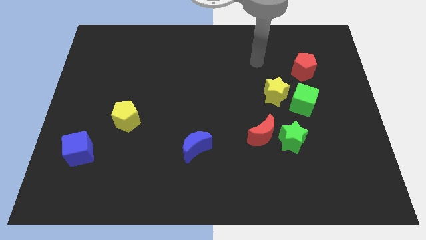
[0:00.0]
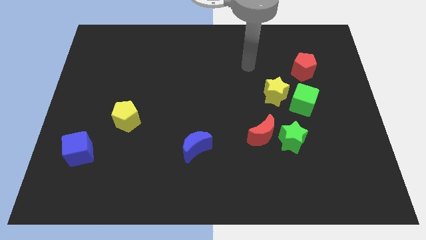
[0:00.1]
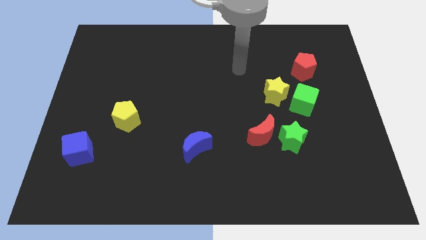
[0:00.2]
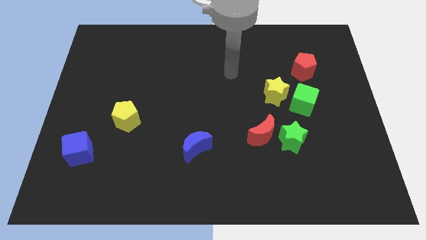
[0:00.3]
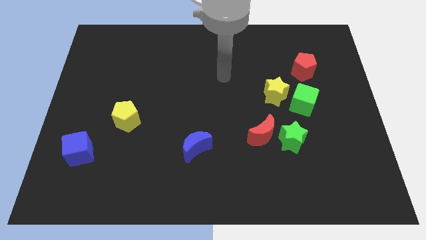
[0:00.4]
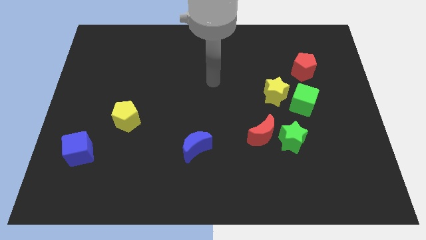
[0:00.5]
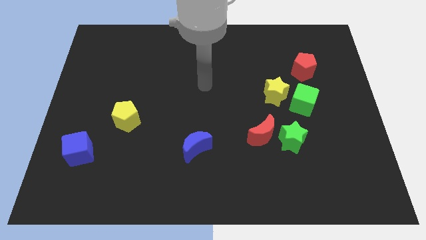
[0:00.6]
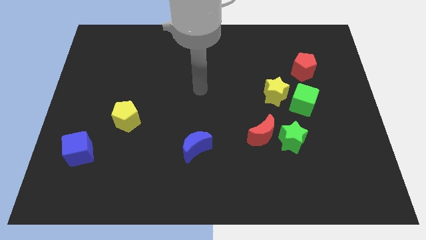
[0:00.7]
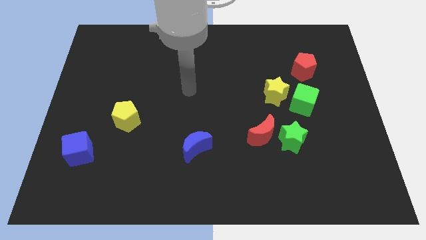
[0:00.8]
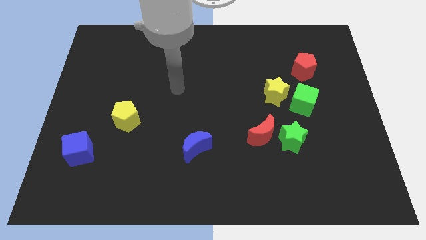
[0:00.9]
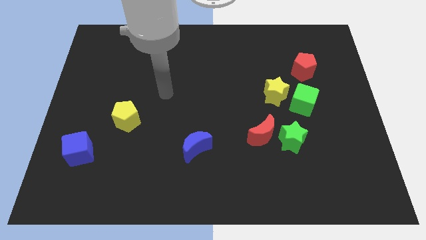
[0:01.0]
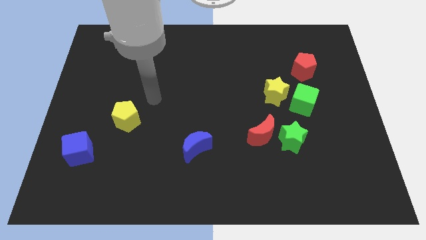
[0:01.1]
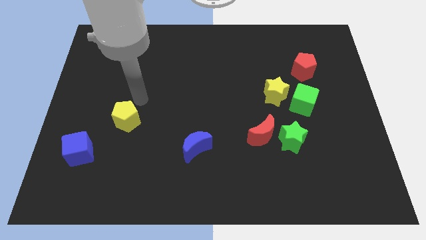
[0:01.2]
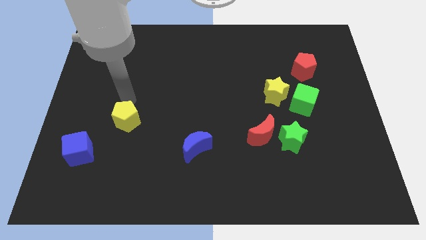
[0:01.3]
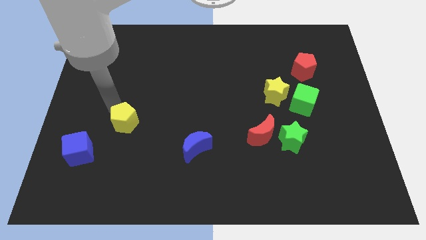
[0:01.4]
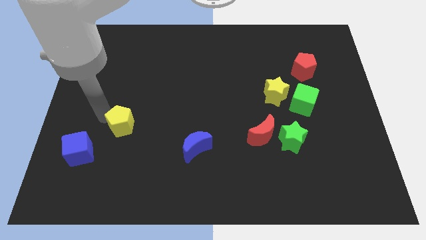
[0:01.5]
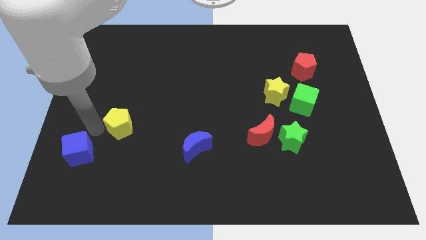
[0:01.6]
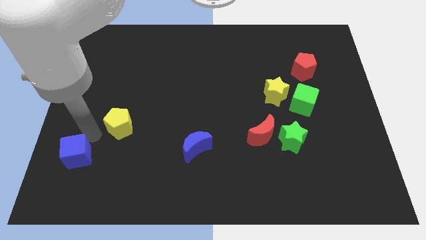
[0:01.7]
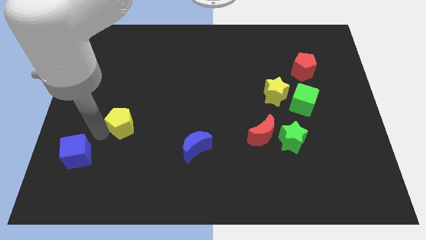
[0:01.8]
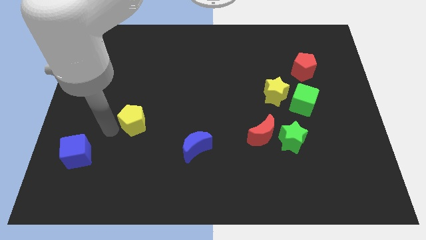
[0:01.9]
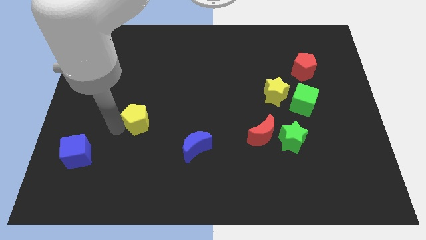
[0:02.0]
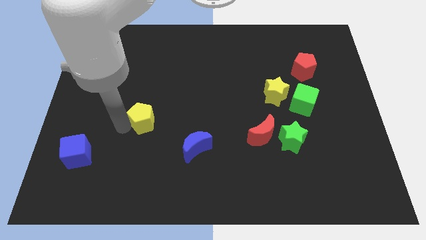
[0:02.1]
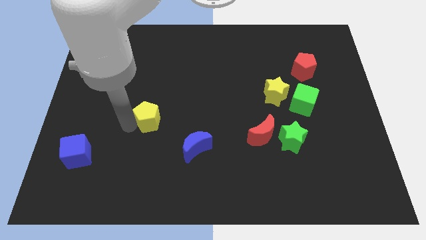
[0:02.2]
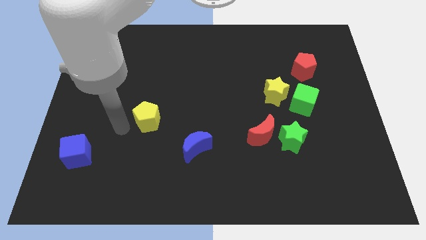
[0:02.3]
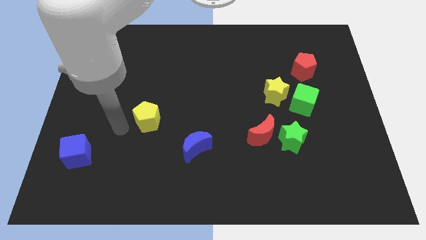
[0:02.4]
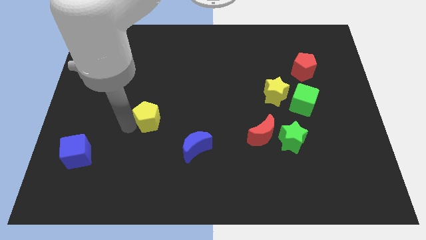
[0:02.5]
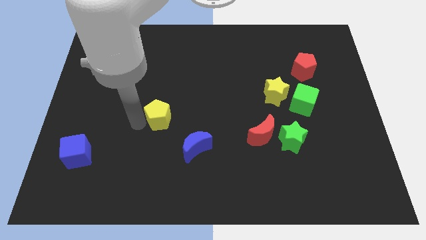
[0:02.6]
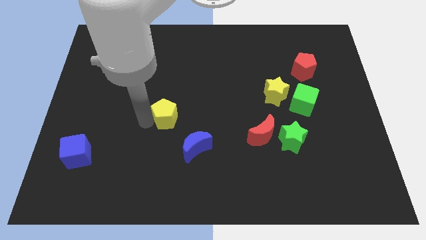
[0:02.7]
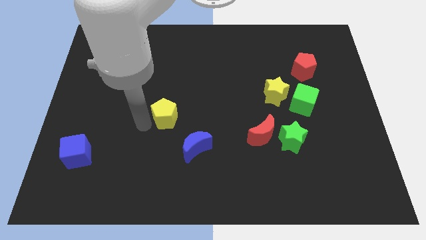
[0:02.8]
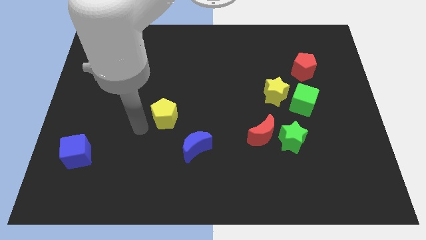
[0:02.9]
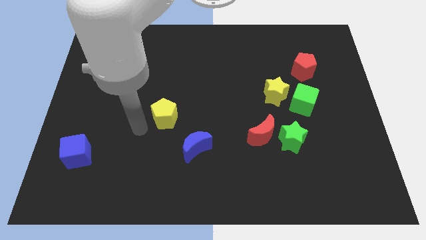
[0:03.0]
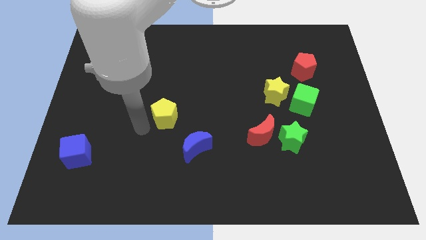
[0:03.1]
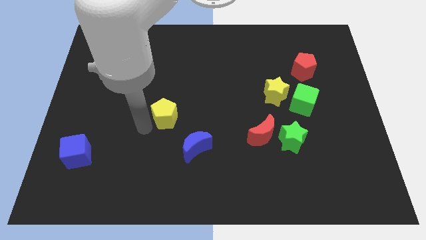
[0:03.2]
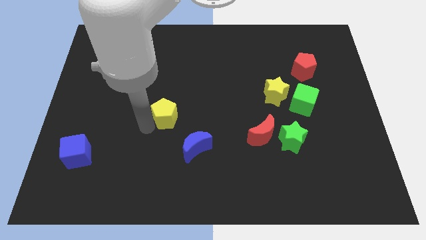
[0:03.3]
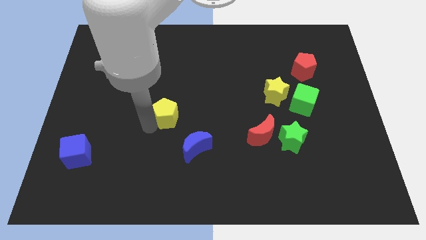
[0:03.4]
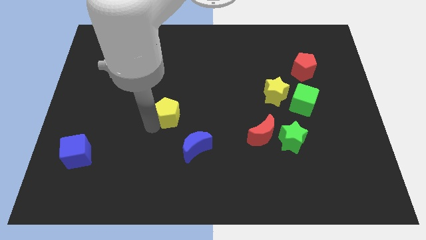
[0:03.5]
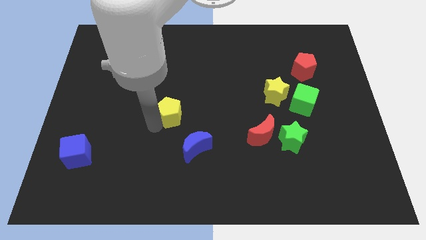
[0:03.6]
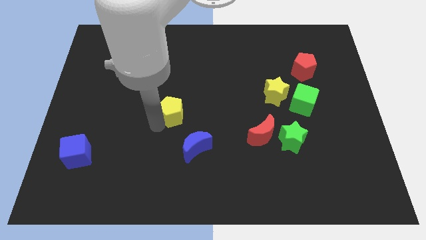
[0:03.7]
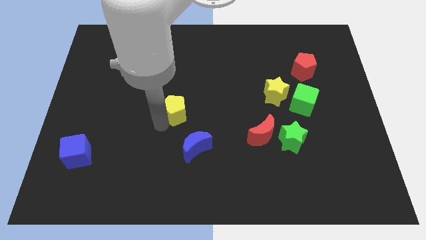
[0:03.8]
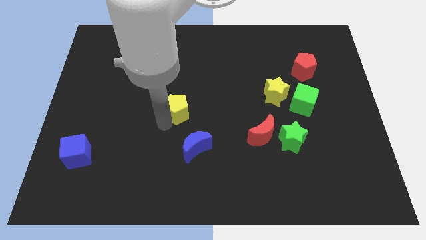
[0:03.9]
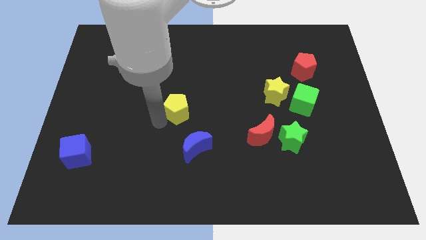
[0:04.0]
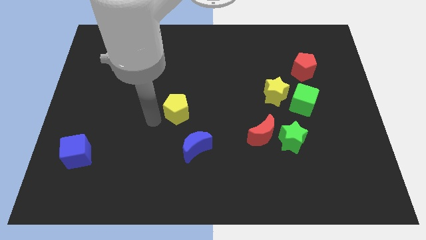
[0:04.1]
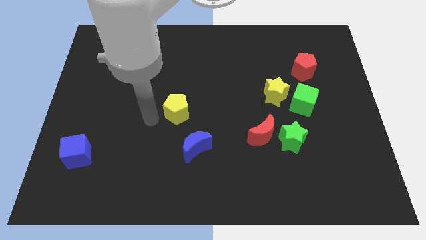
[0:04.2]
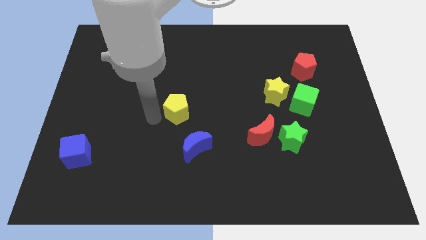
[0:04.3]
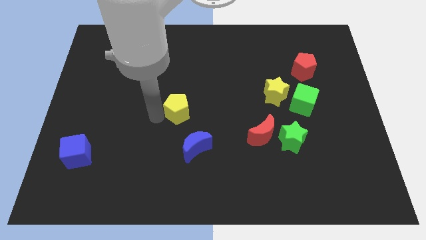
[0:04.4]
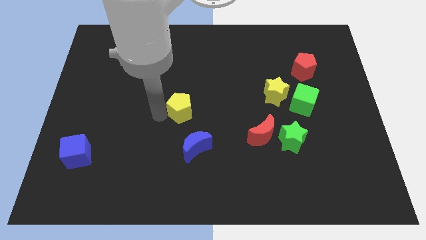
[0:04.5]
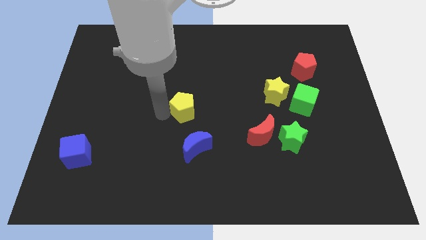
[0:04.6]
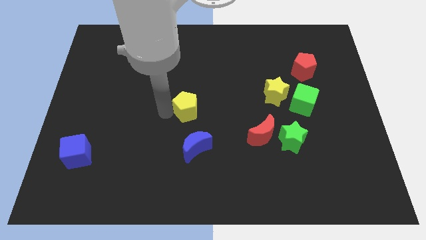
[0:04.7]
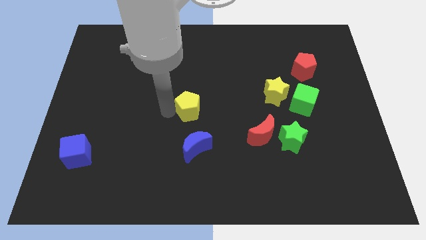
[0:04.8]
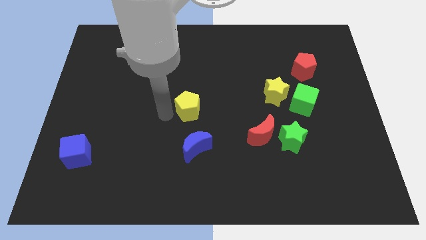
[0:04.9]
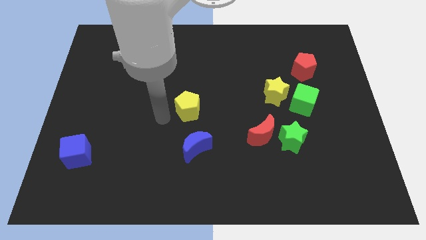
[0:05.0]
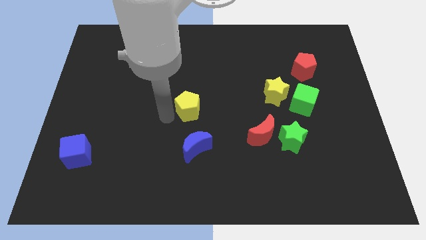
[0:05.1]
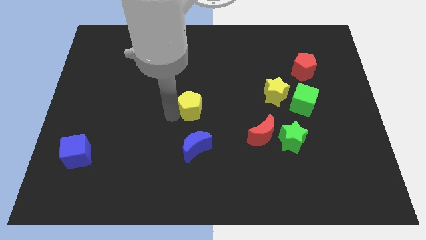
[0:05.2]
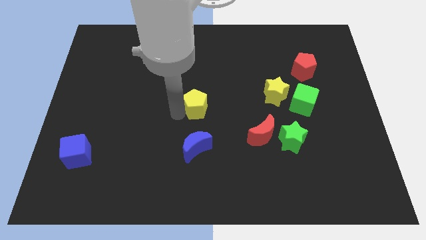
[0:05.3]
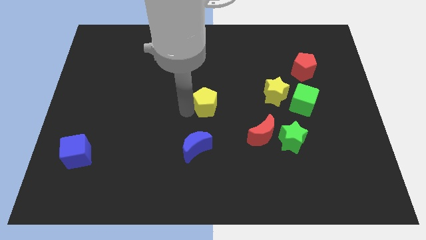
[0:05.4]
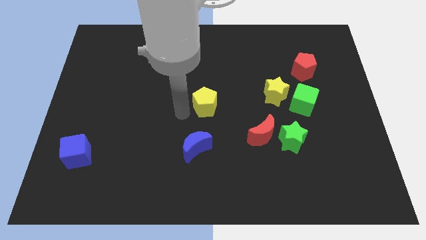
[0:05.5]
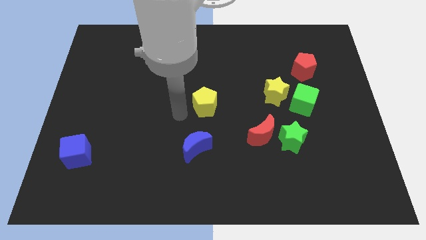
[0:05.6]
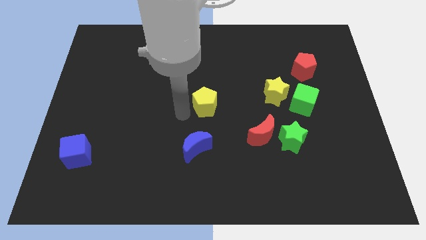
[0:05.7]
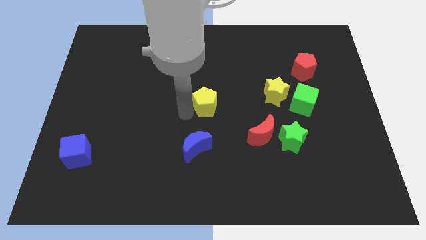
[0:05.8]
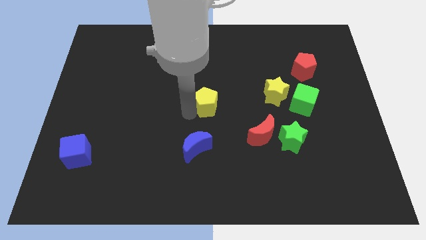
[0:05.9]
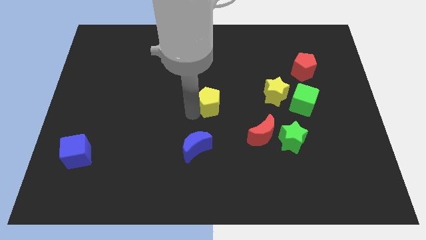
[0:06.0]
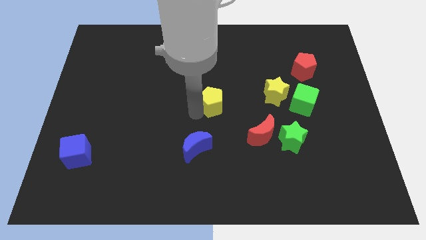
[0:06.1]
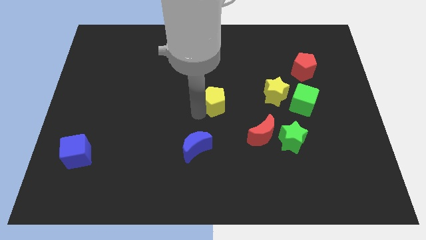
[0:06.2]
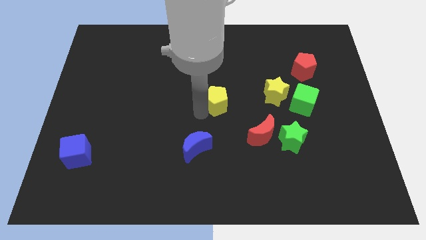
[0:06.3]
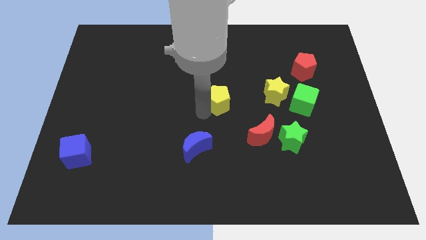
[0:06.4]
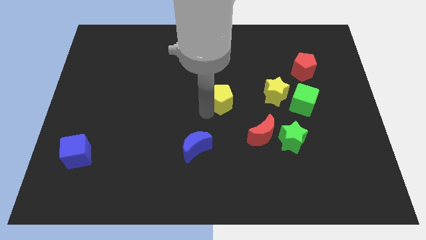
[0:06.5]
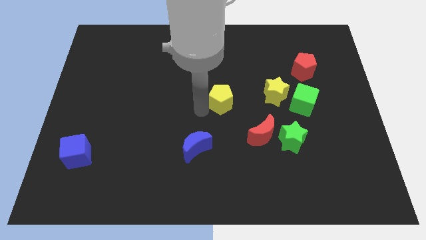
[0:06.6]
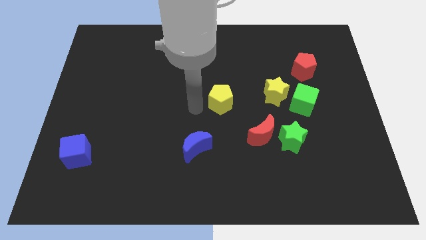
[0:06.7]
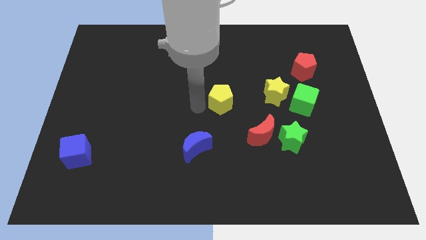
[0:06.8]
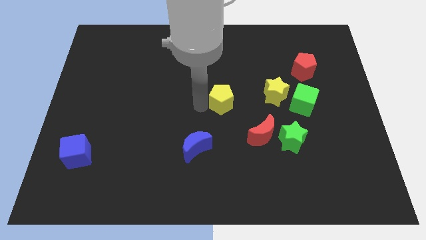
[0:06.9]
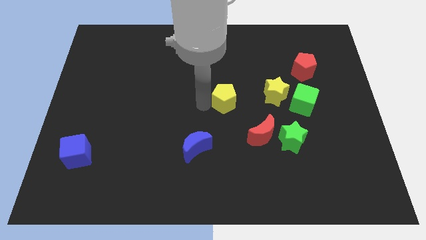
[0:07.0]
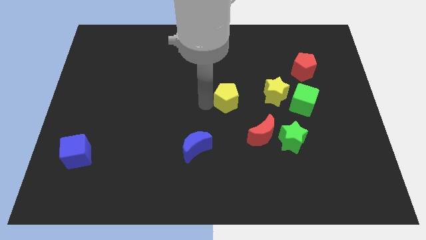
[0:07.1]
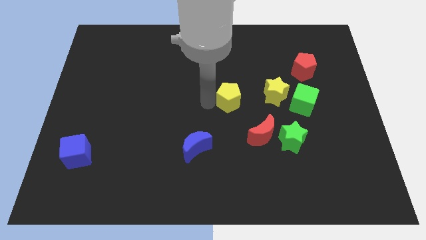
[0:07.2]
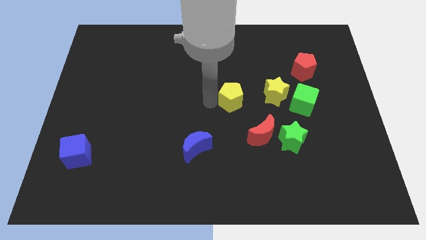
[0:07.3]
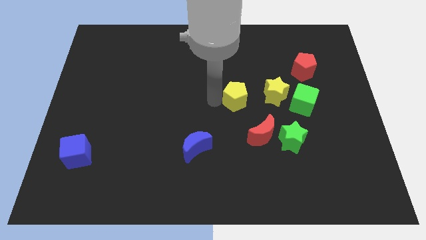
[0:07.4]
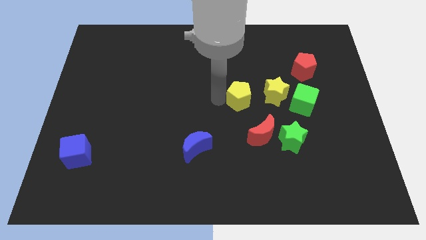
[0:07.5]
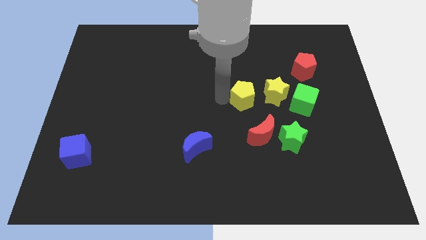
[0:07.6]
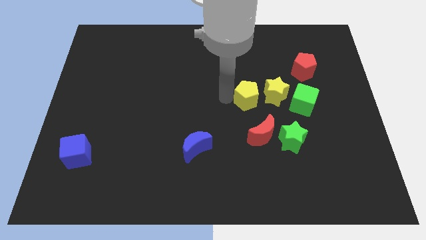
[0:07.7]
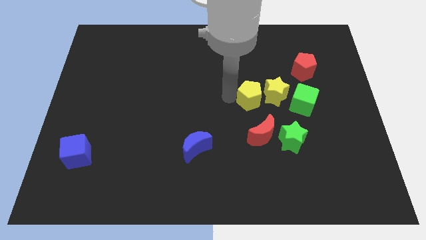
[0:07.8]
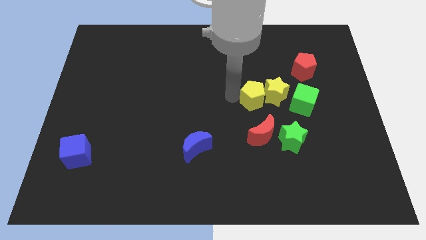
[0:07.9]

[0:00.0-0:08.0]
push the yellow pentagon close to the yellow star
